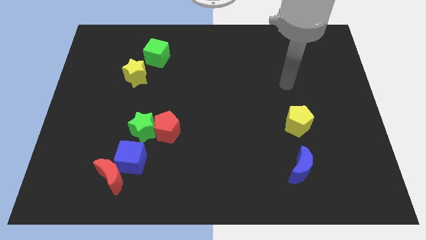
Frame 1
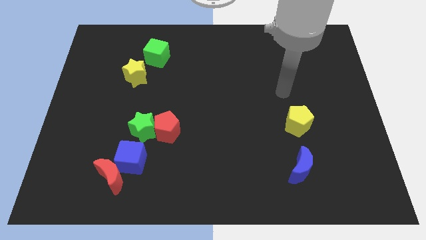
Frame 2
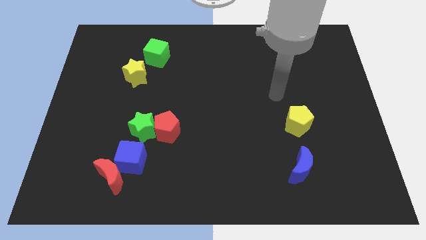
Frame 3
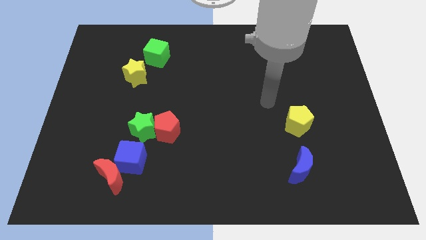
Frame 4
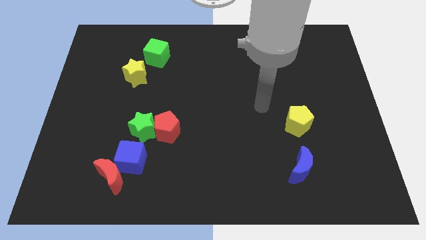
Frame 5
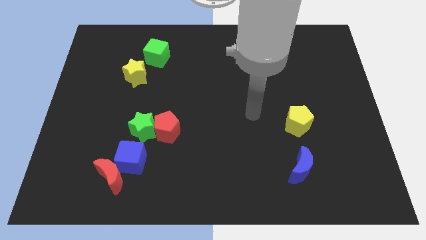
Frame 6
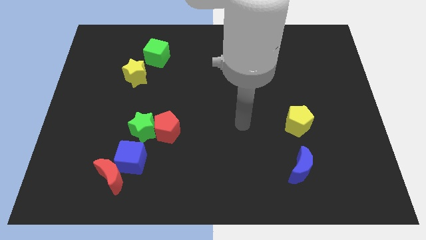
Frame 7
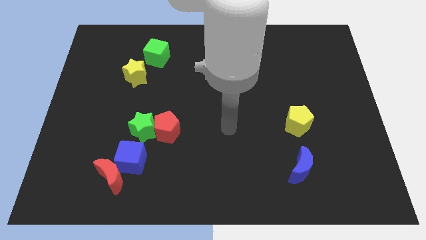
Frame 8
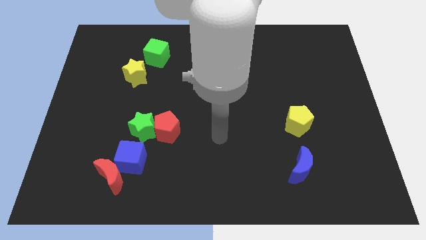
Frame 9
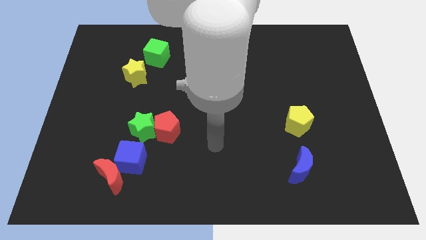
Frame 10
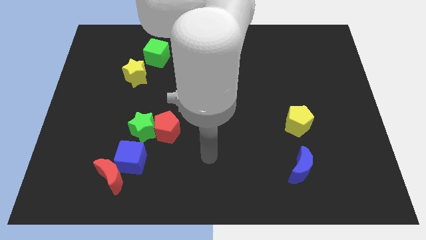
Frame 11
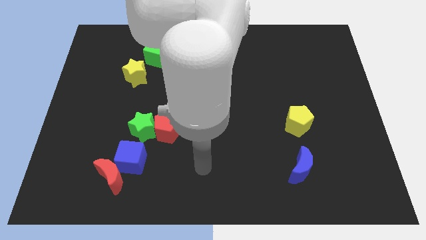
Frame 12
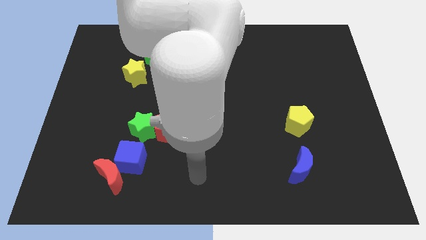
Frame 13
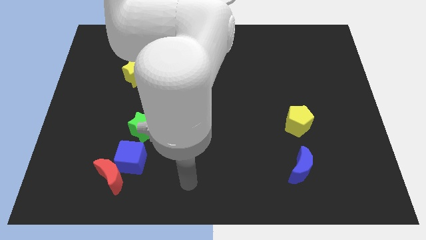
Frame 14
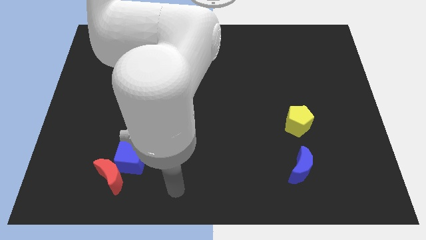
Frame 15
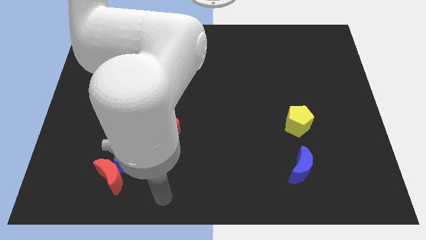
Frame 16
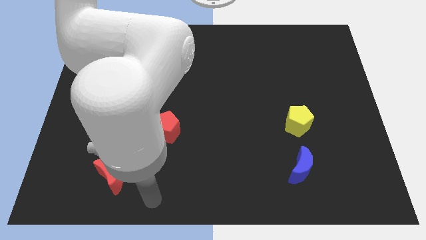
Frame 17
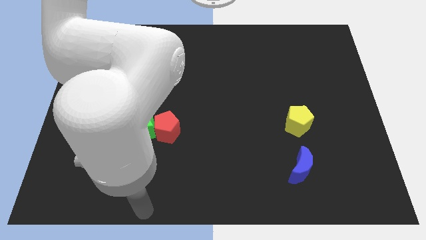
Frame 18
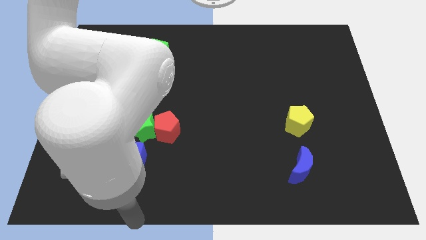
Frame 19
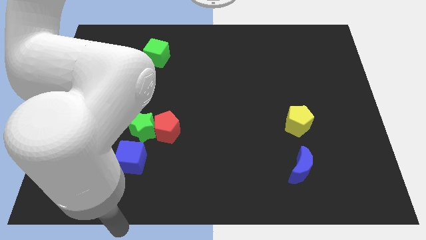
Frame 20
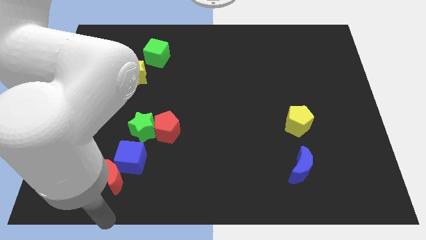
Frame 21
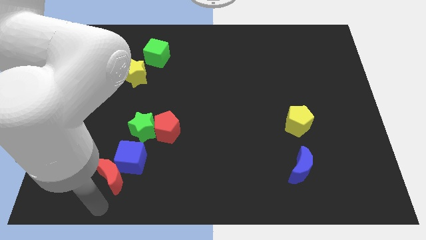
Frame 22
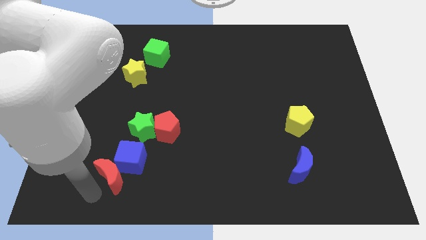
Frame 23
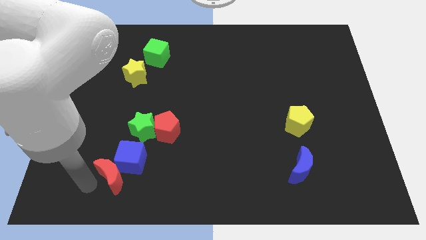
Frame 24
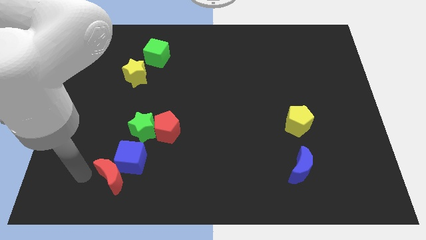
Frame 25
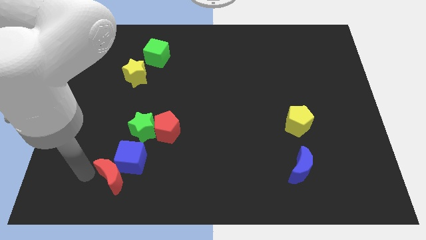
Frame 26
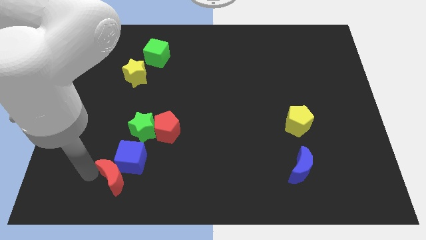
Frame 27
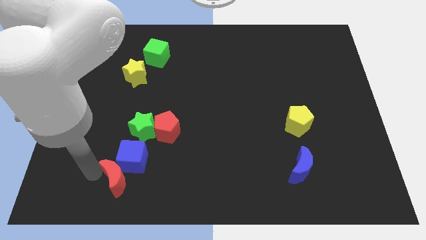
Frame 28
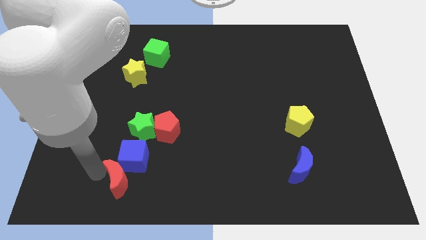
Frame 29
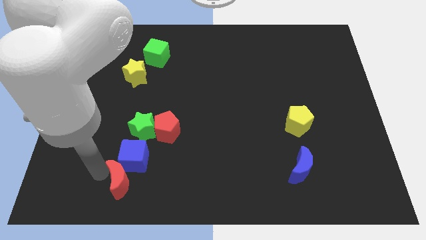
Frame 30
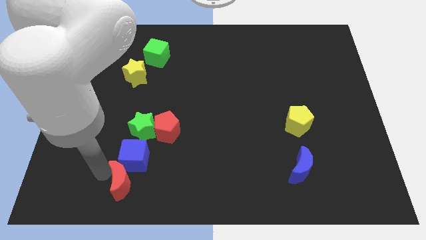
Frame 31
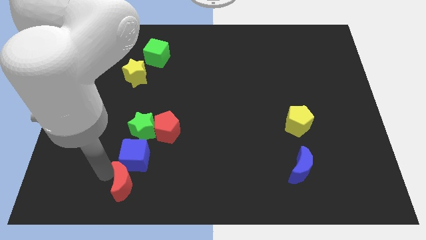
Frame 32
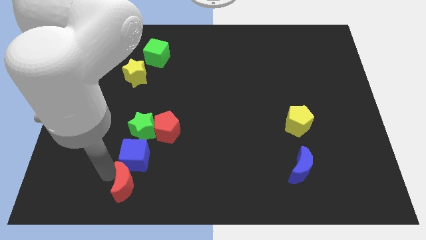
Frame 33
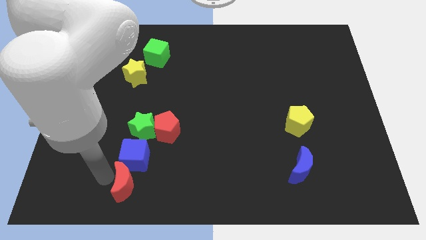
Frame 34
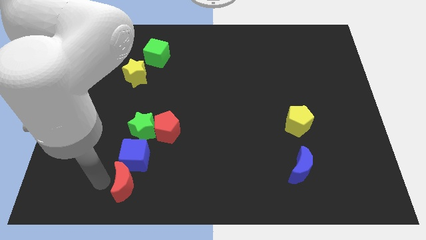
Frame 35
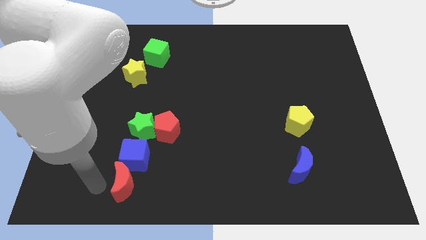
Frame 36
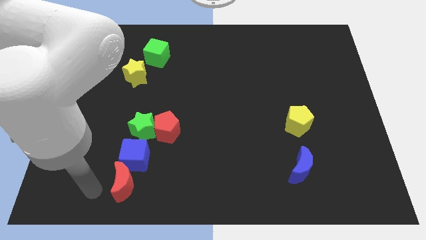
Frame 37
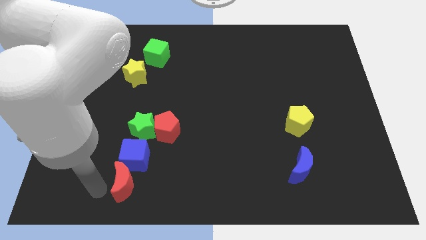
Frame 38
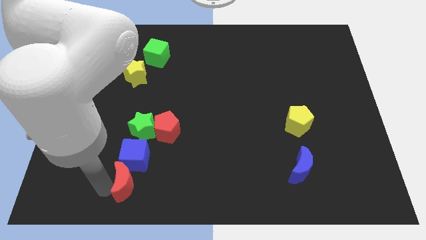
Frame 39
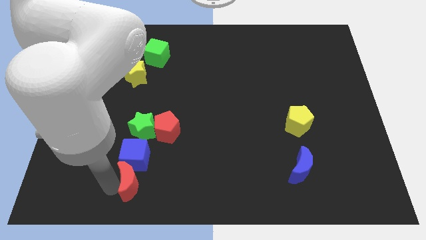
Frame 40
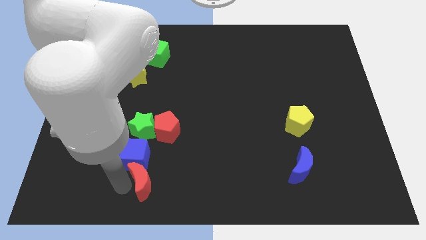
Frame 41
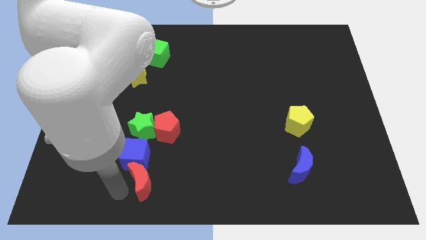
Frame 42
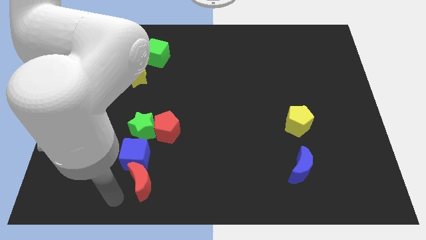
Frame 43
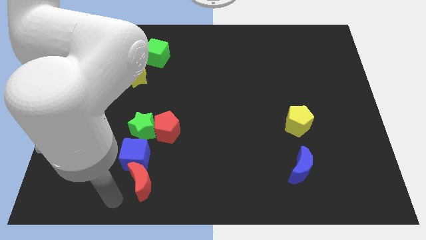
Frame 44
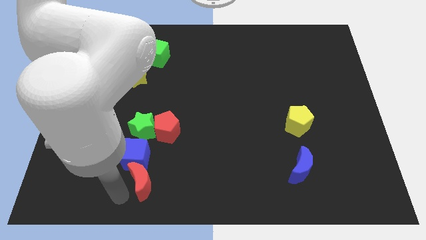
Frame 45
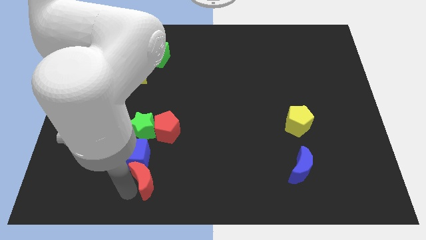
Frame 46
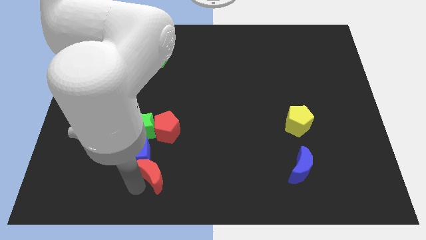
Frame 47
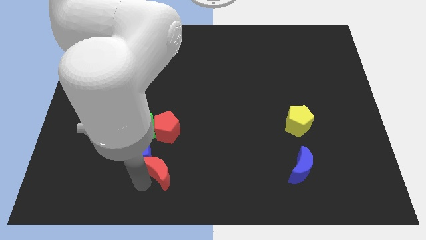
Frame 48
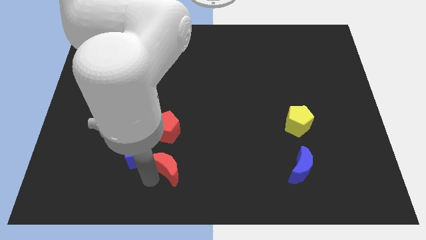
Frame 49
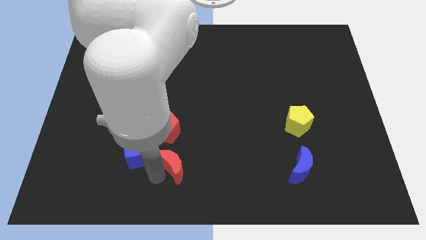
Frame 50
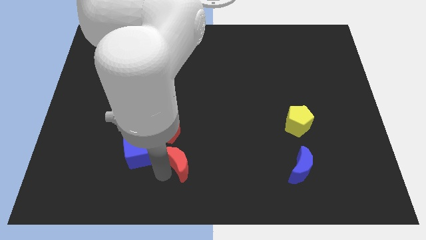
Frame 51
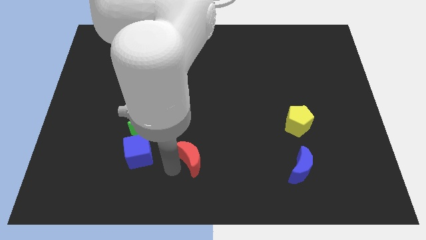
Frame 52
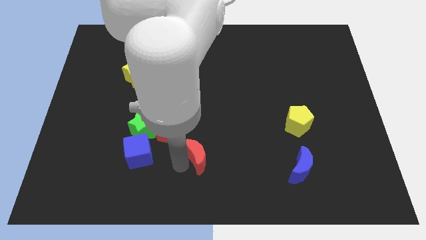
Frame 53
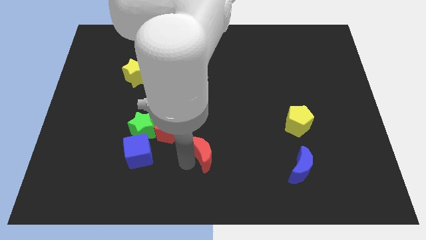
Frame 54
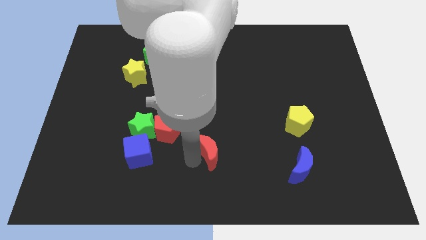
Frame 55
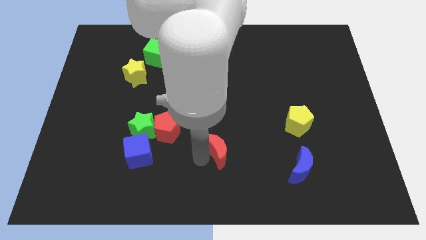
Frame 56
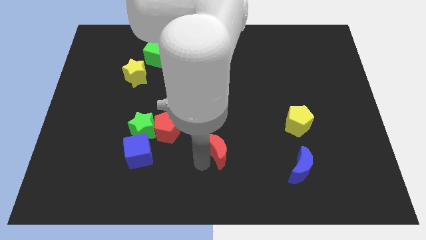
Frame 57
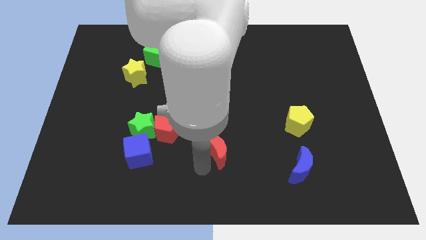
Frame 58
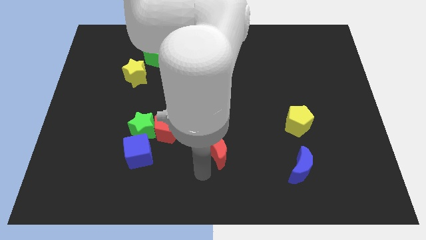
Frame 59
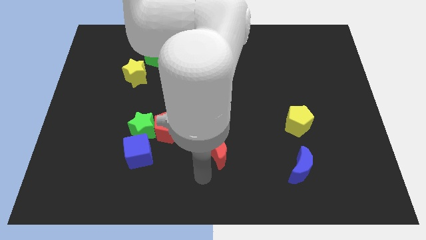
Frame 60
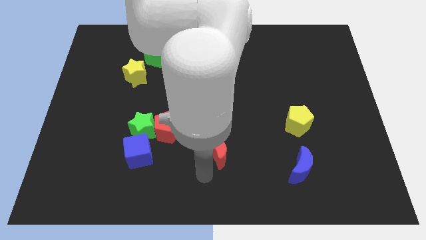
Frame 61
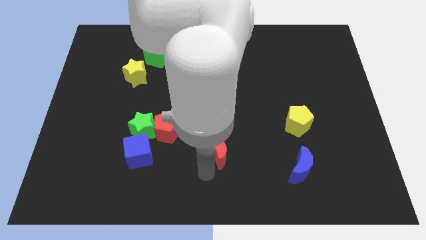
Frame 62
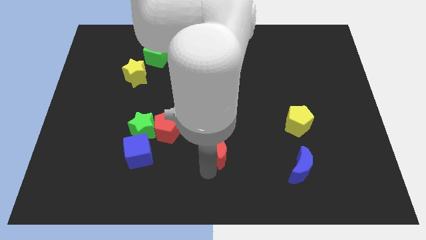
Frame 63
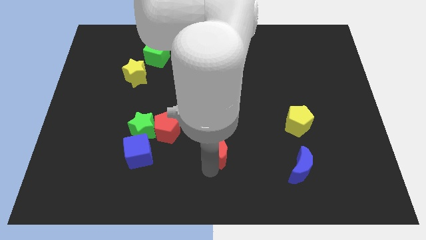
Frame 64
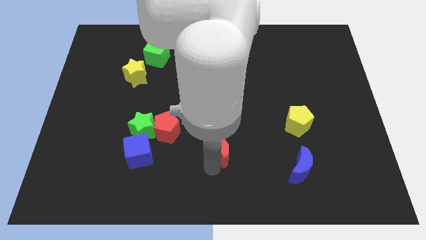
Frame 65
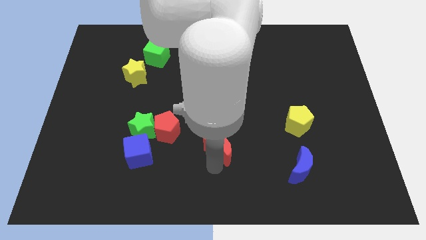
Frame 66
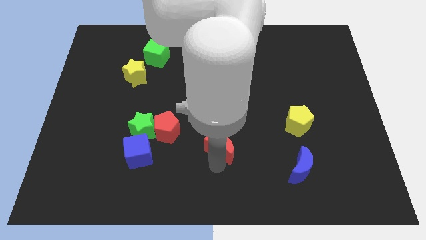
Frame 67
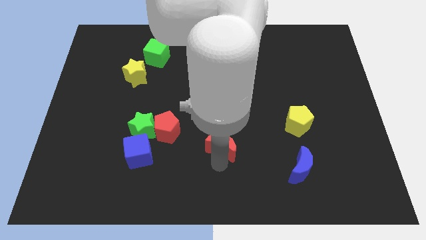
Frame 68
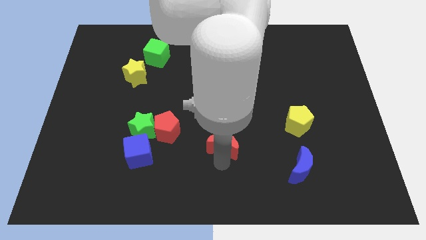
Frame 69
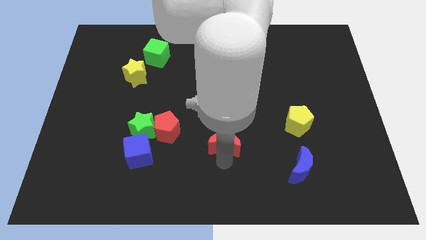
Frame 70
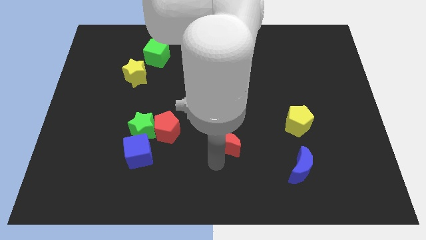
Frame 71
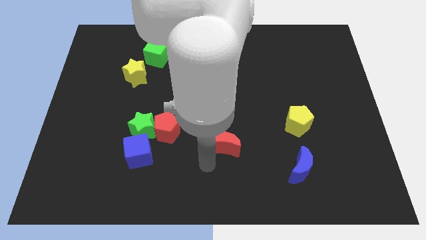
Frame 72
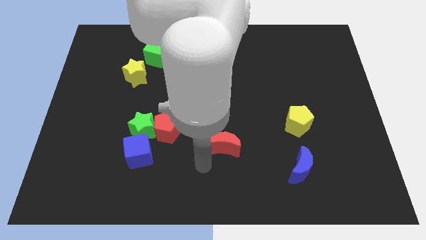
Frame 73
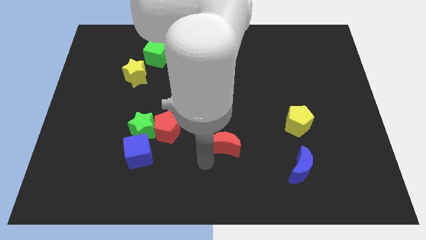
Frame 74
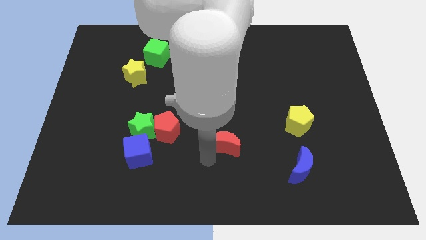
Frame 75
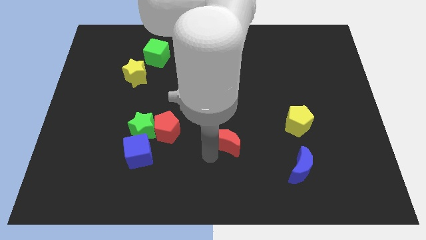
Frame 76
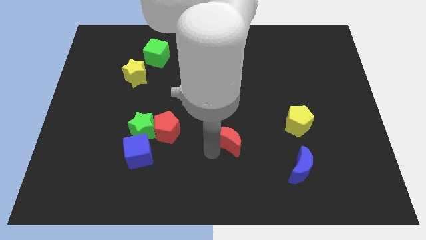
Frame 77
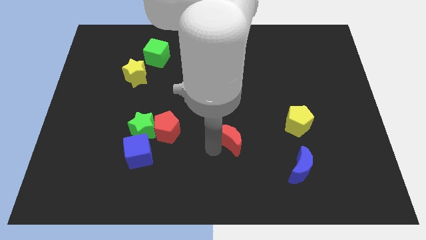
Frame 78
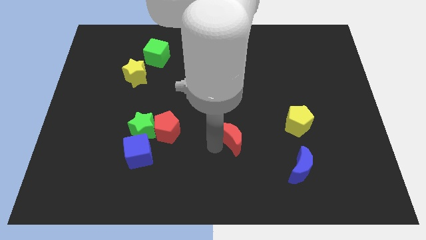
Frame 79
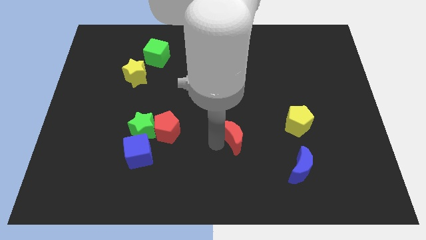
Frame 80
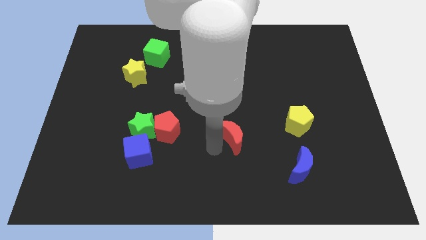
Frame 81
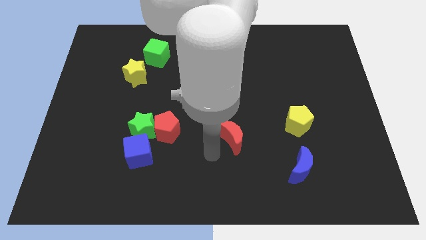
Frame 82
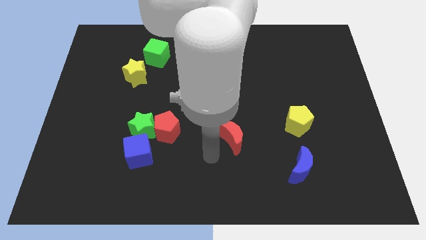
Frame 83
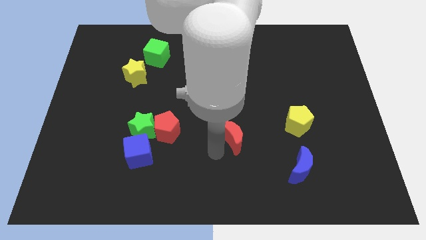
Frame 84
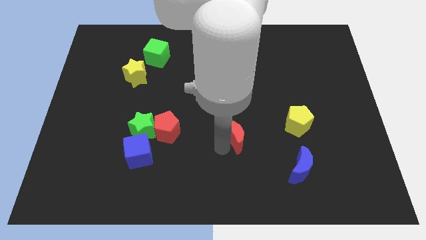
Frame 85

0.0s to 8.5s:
put the red moon to the left of the yellow pentagon
